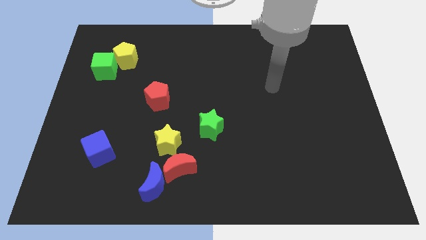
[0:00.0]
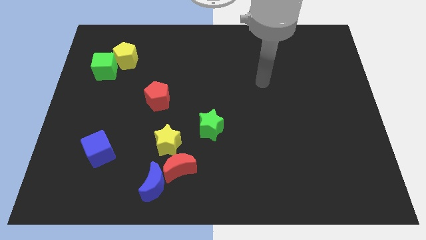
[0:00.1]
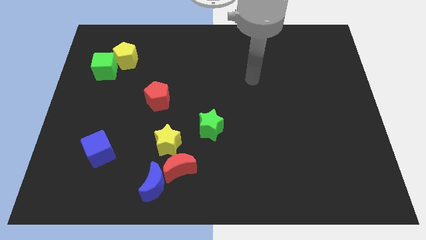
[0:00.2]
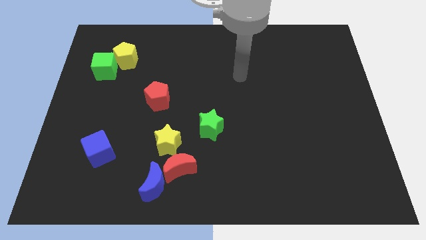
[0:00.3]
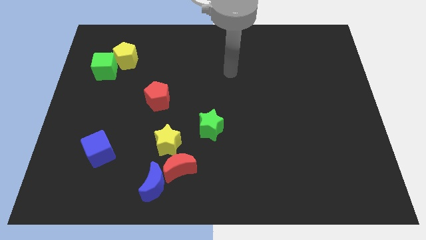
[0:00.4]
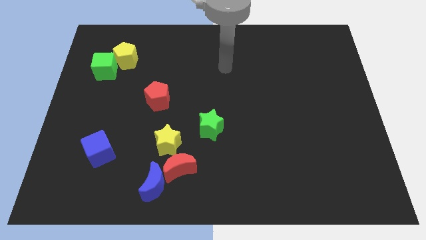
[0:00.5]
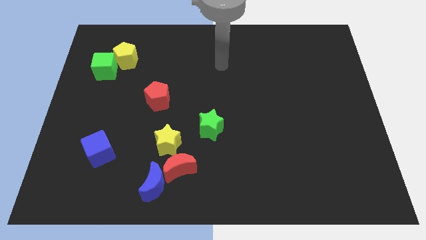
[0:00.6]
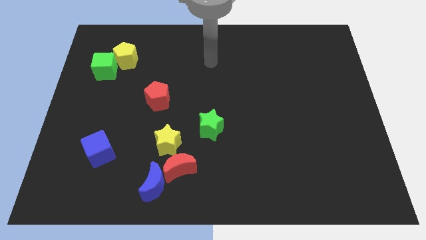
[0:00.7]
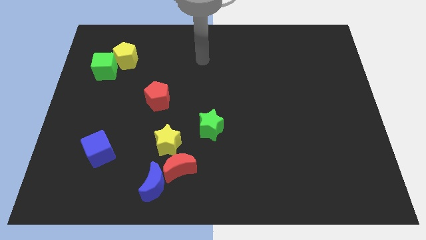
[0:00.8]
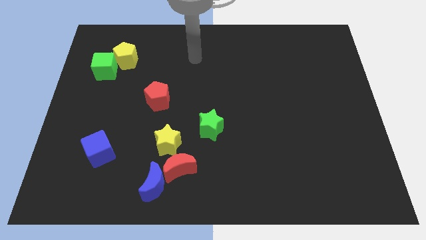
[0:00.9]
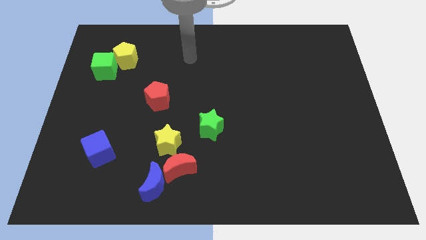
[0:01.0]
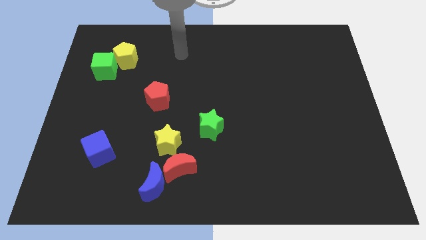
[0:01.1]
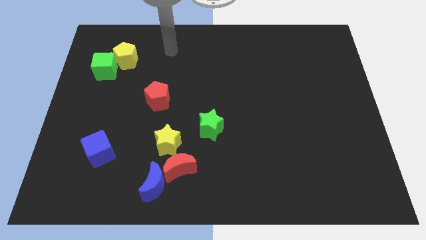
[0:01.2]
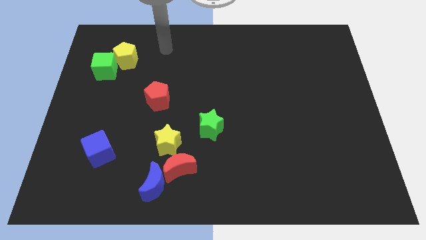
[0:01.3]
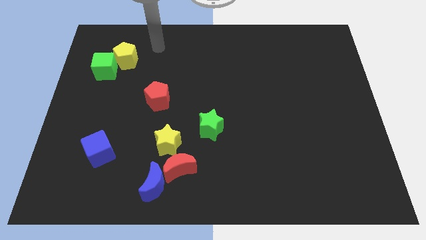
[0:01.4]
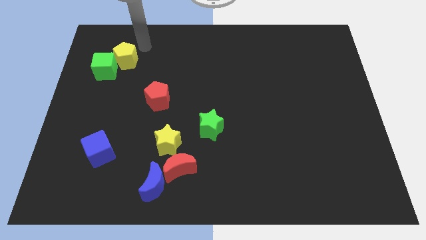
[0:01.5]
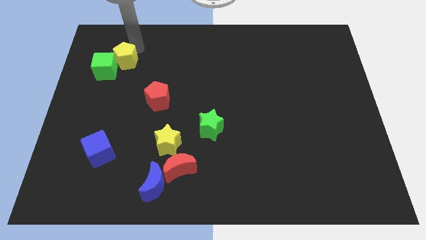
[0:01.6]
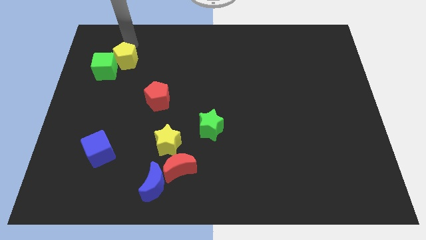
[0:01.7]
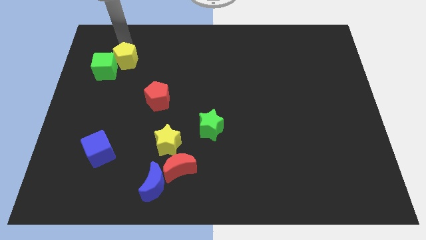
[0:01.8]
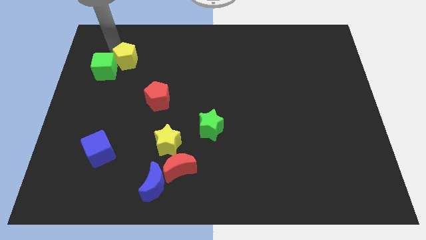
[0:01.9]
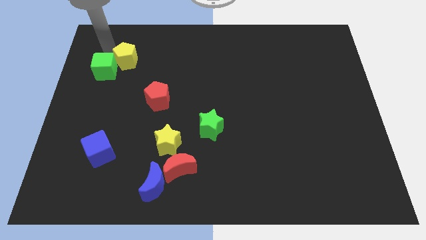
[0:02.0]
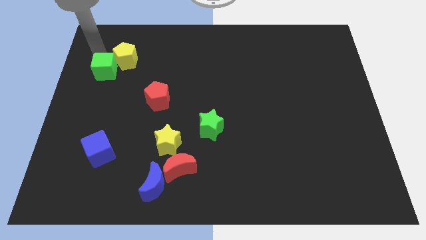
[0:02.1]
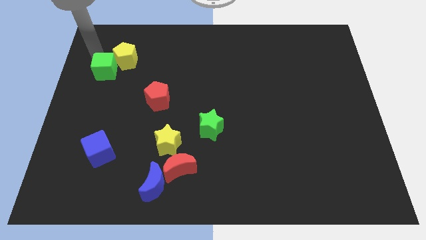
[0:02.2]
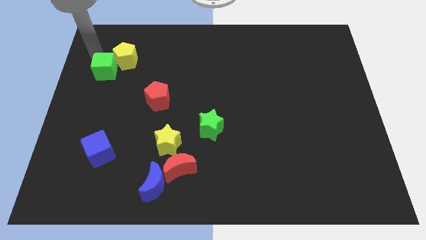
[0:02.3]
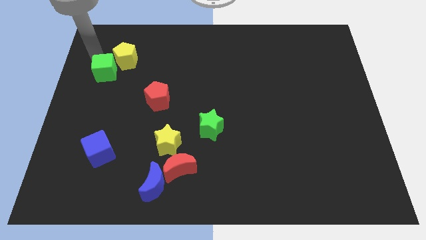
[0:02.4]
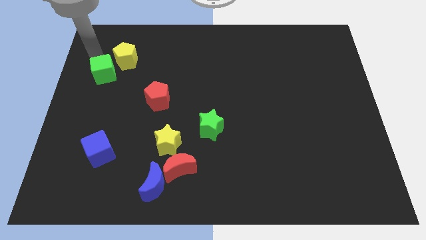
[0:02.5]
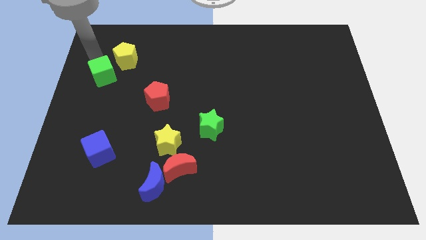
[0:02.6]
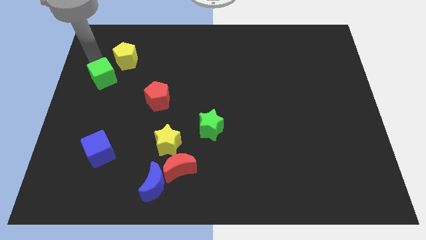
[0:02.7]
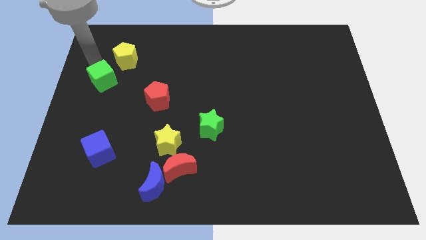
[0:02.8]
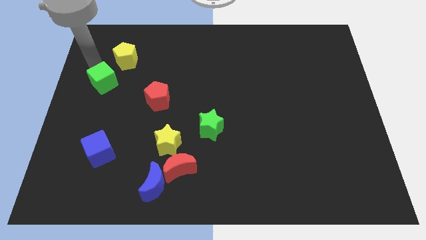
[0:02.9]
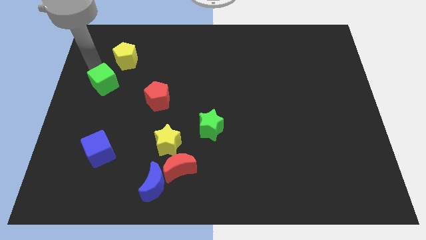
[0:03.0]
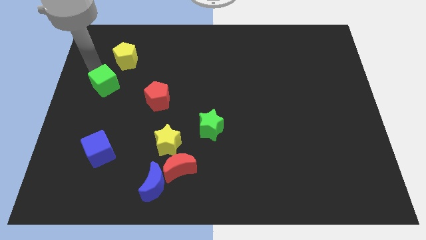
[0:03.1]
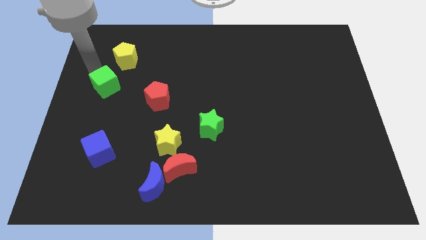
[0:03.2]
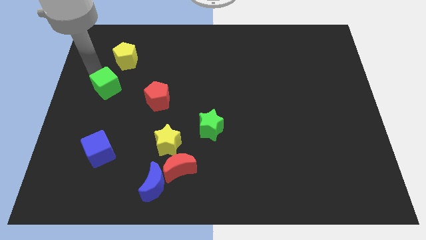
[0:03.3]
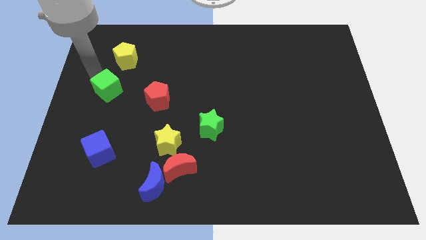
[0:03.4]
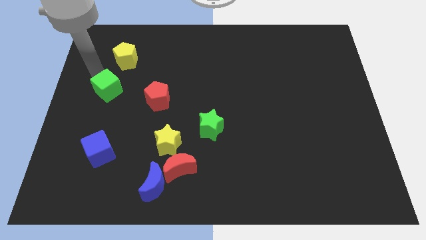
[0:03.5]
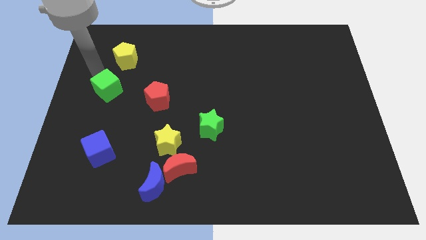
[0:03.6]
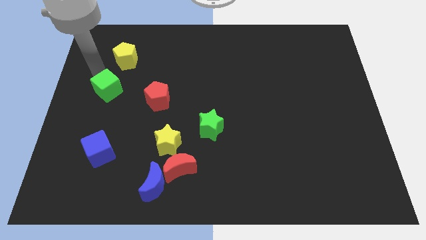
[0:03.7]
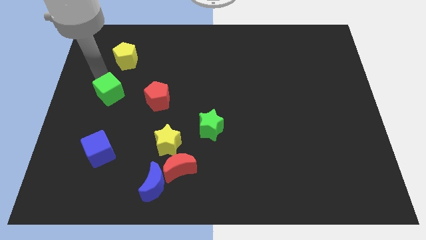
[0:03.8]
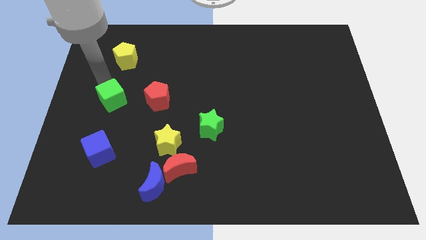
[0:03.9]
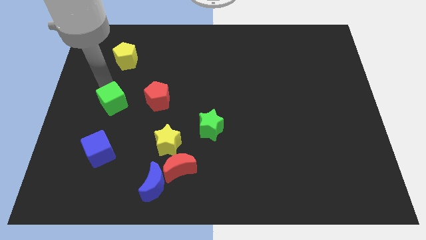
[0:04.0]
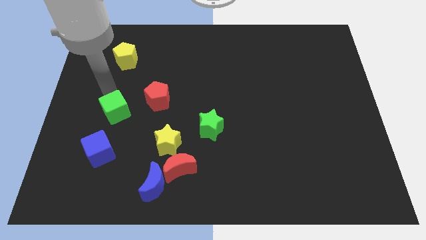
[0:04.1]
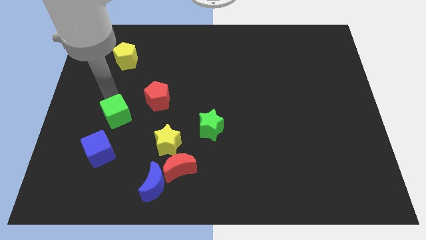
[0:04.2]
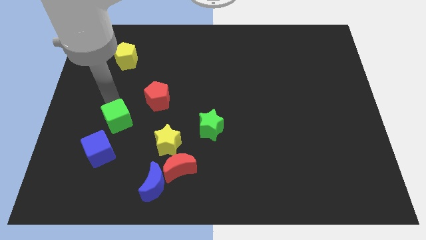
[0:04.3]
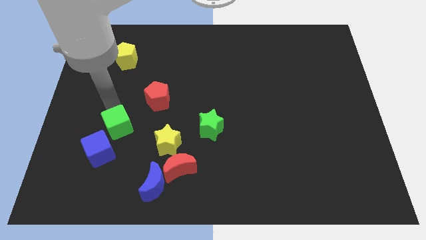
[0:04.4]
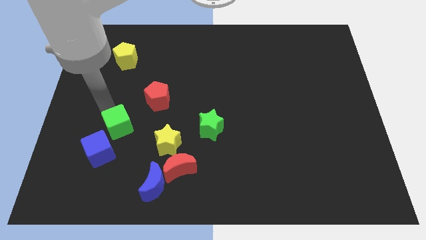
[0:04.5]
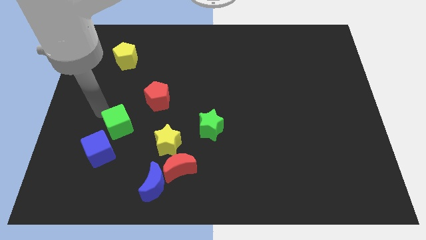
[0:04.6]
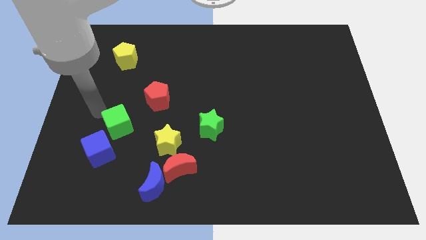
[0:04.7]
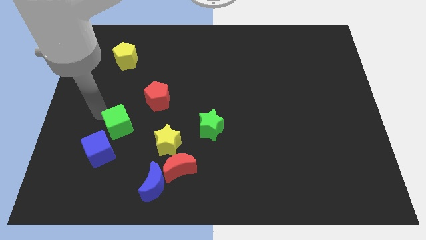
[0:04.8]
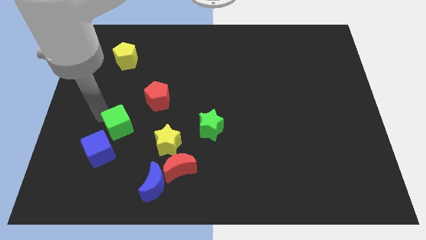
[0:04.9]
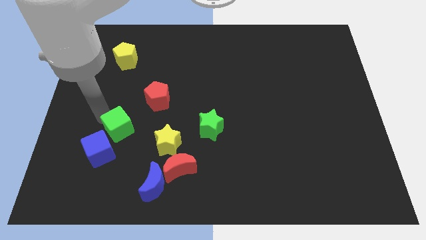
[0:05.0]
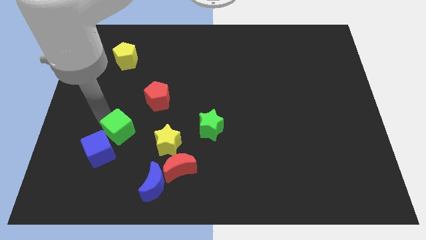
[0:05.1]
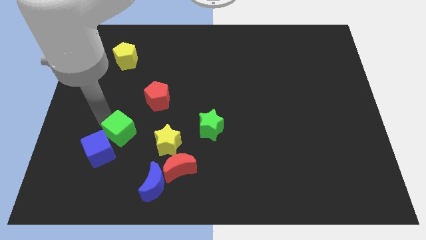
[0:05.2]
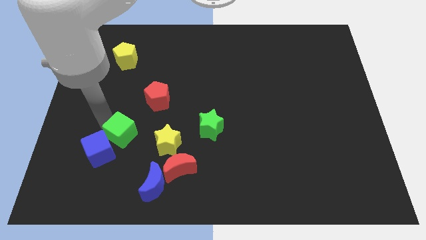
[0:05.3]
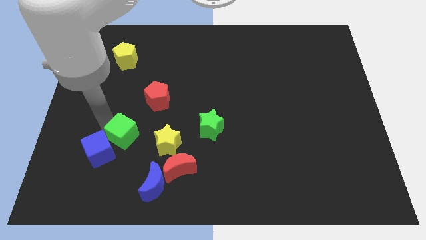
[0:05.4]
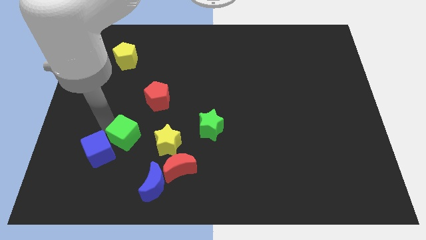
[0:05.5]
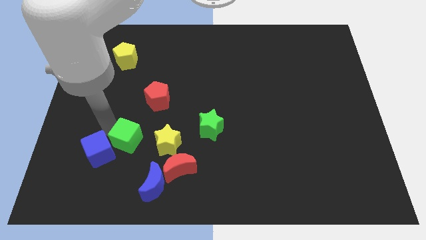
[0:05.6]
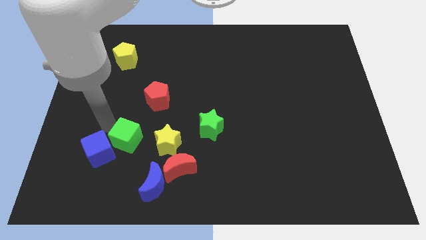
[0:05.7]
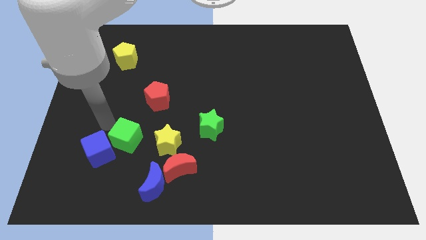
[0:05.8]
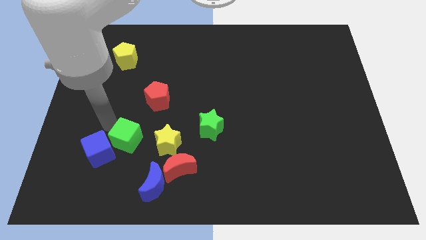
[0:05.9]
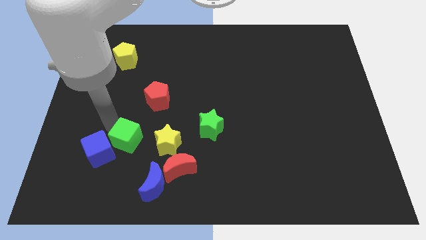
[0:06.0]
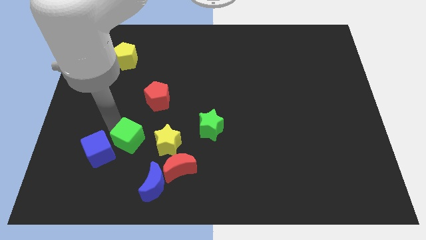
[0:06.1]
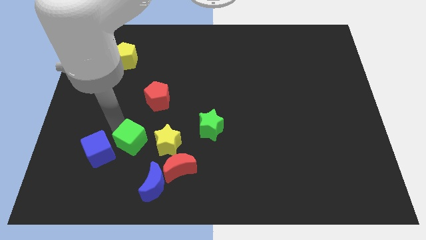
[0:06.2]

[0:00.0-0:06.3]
slide the green cube to the bottom side of the red pentagon

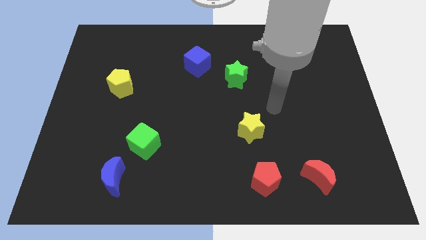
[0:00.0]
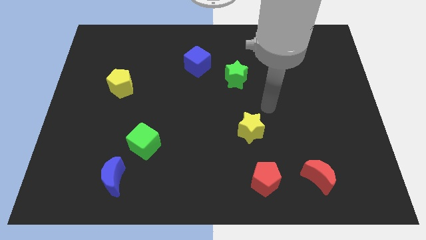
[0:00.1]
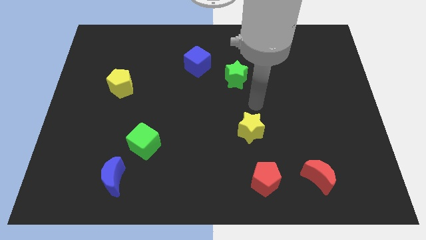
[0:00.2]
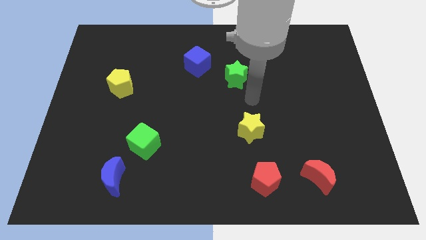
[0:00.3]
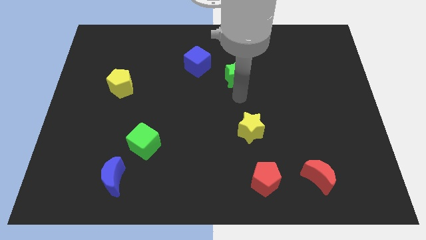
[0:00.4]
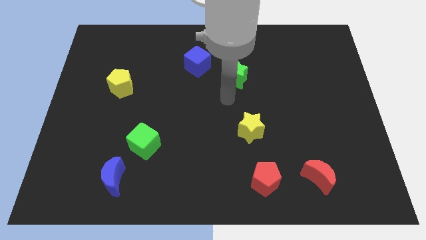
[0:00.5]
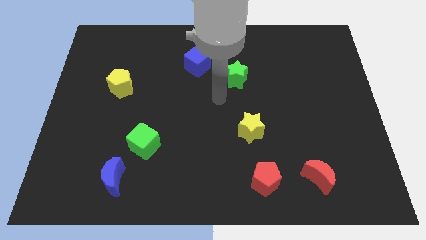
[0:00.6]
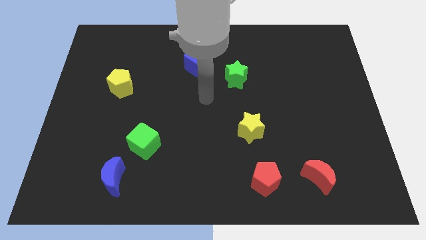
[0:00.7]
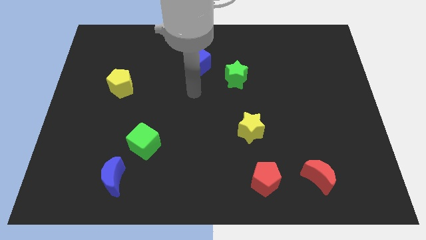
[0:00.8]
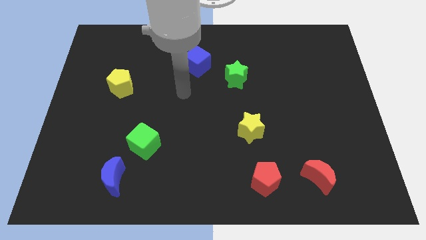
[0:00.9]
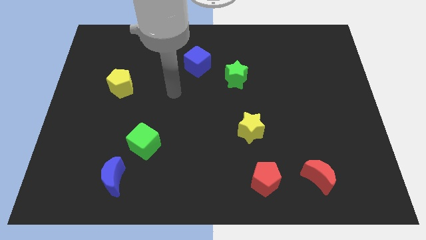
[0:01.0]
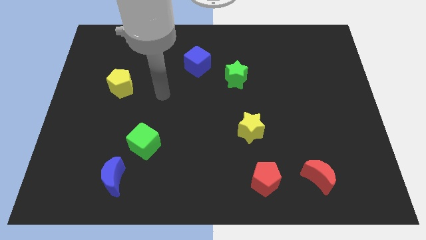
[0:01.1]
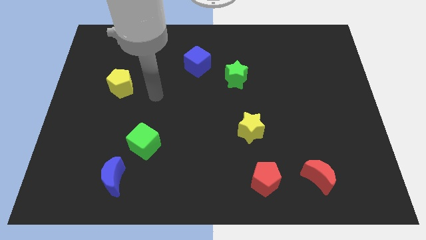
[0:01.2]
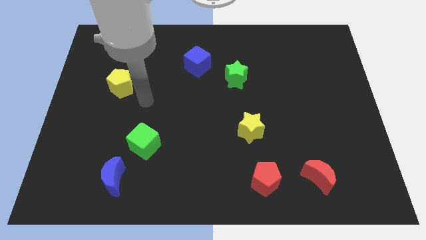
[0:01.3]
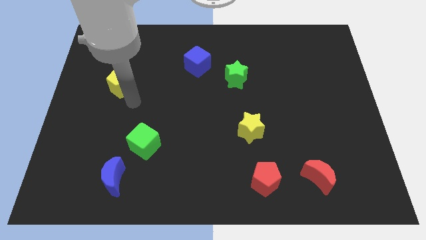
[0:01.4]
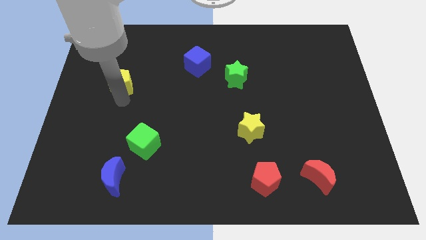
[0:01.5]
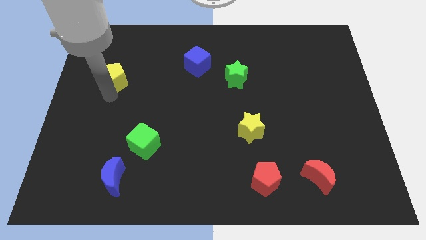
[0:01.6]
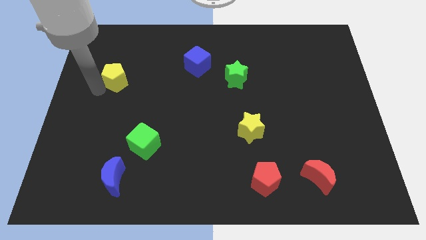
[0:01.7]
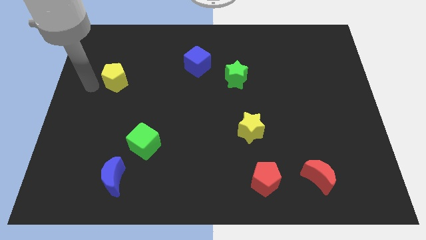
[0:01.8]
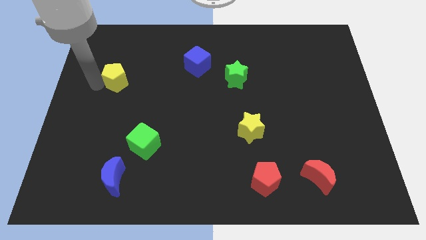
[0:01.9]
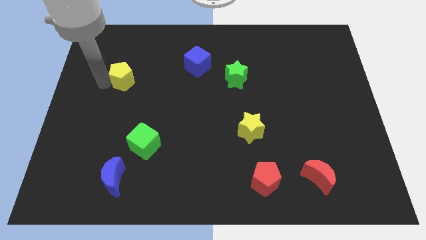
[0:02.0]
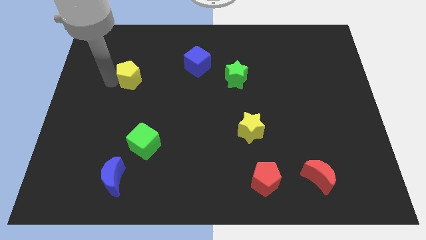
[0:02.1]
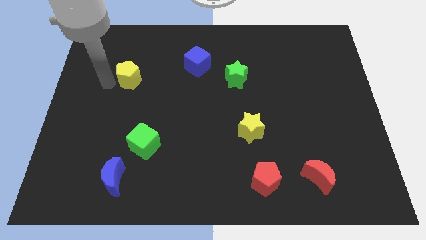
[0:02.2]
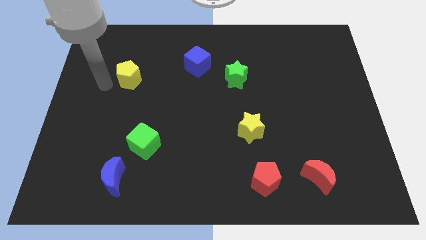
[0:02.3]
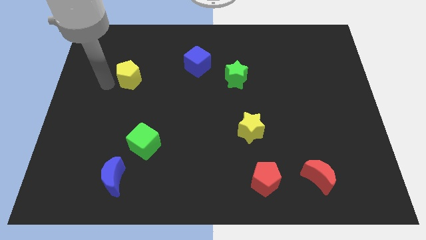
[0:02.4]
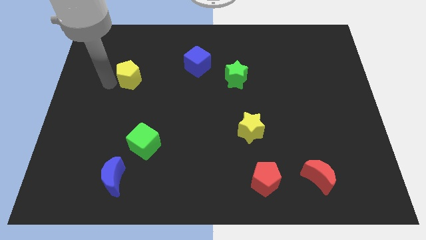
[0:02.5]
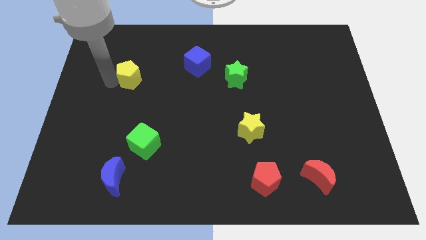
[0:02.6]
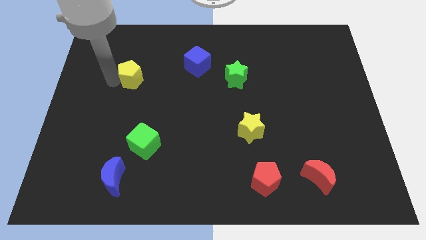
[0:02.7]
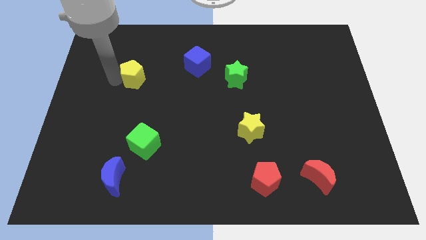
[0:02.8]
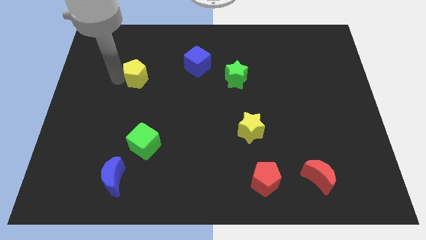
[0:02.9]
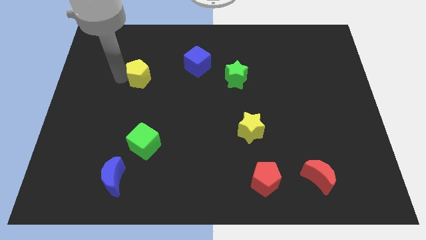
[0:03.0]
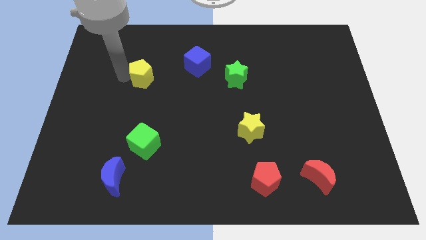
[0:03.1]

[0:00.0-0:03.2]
put the yellow pentagon to the left of the blue cube
